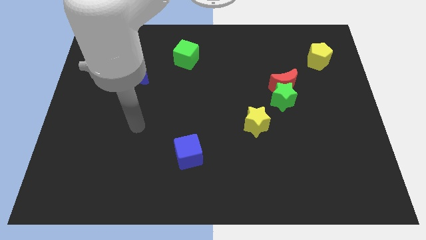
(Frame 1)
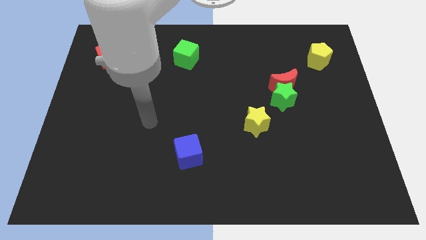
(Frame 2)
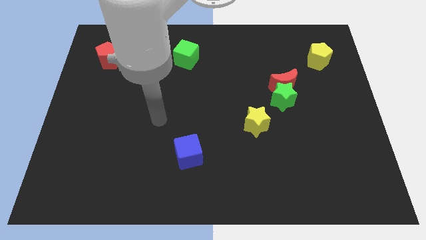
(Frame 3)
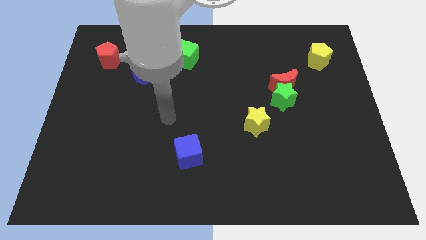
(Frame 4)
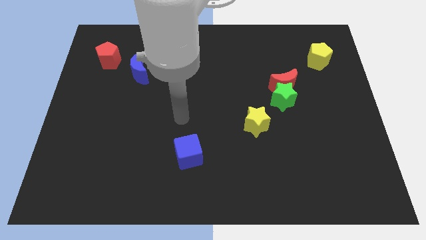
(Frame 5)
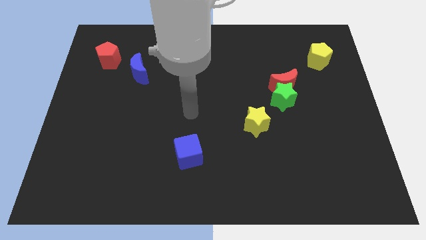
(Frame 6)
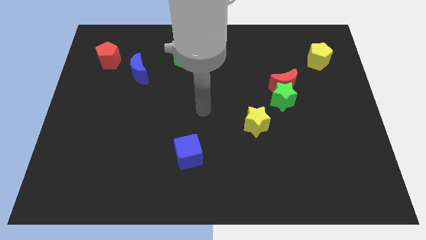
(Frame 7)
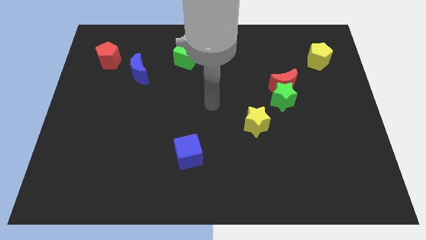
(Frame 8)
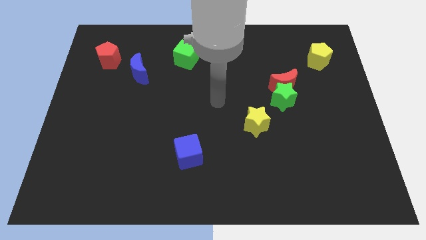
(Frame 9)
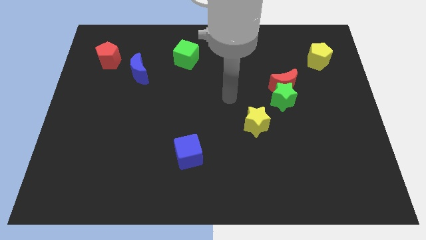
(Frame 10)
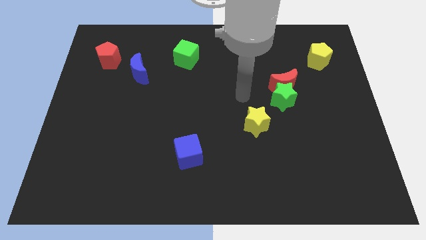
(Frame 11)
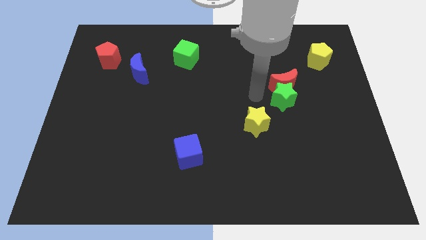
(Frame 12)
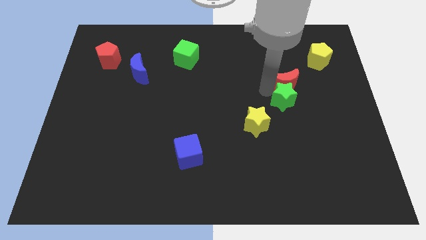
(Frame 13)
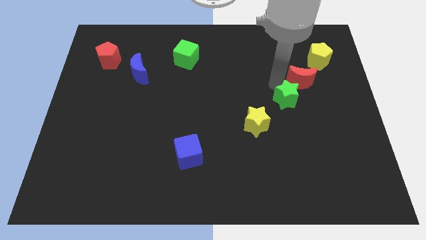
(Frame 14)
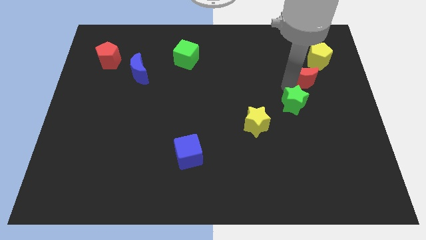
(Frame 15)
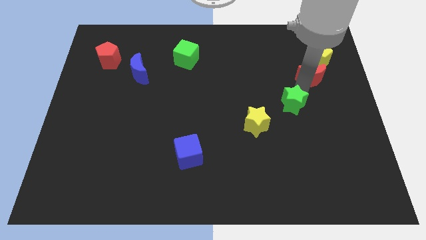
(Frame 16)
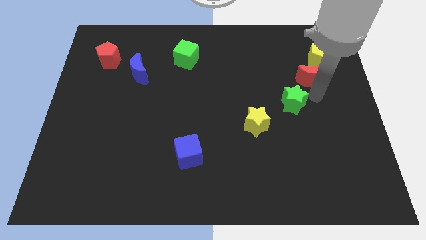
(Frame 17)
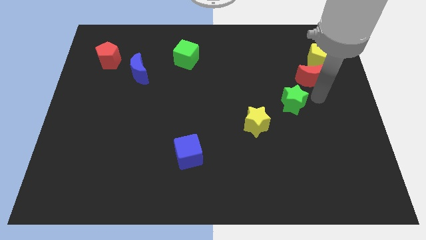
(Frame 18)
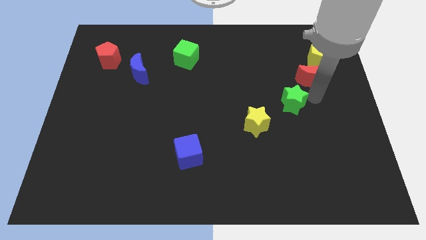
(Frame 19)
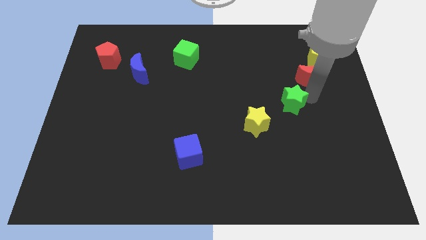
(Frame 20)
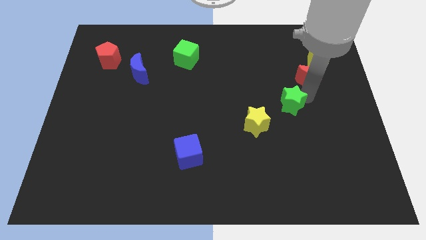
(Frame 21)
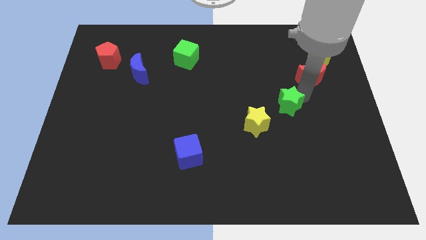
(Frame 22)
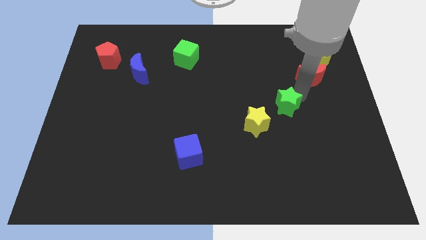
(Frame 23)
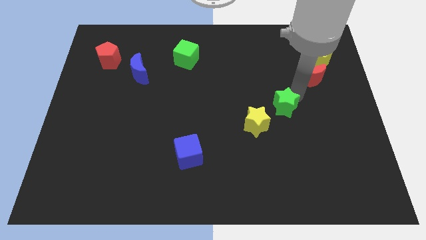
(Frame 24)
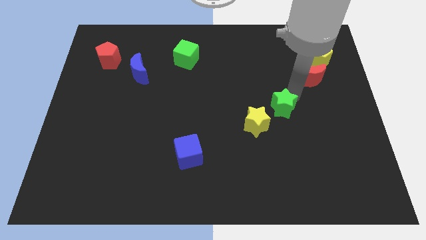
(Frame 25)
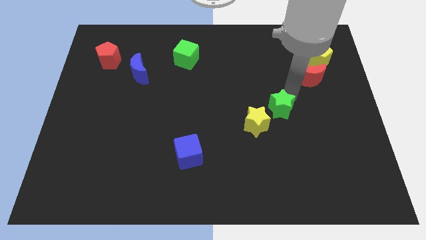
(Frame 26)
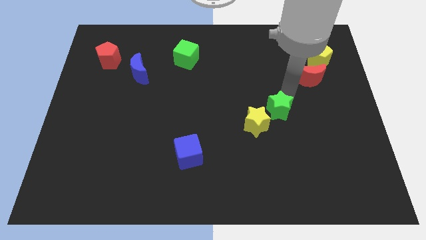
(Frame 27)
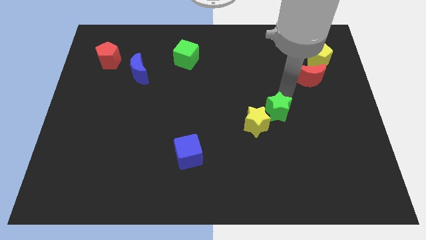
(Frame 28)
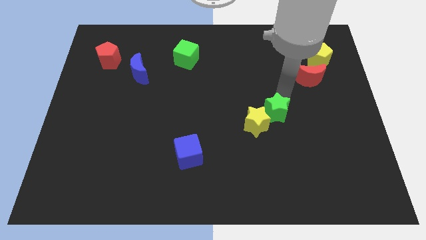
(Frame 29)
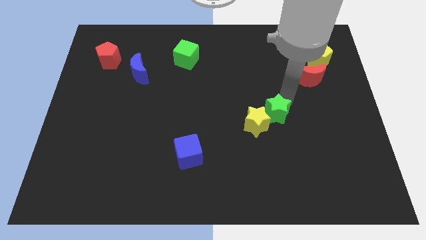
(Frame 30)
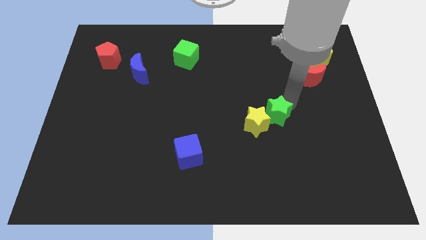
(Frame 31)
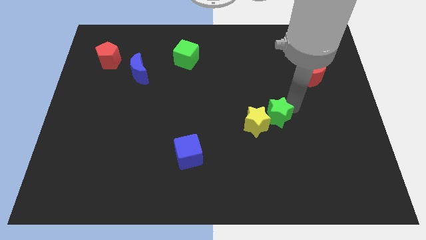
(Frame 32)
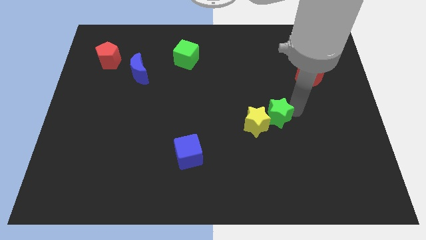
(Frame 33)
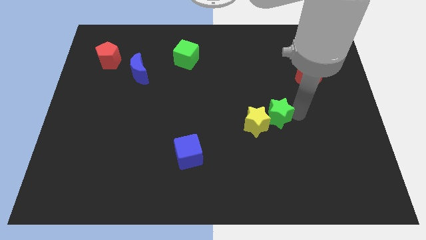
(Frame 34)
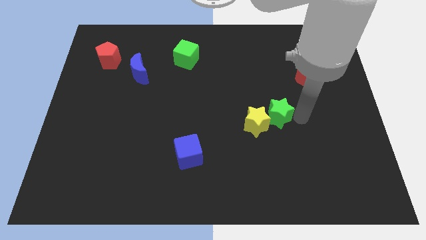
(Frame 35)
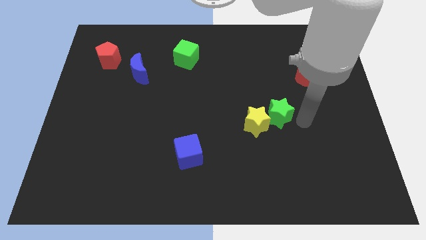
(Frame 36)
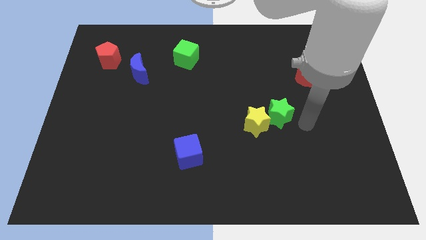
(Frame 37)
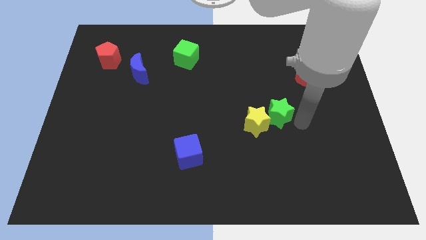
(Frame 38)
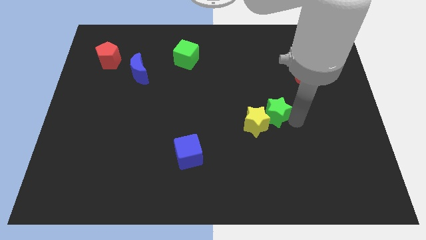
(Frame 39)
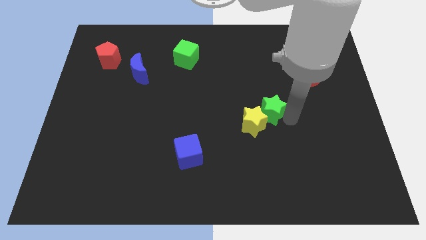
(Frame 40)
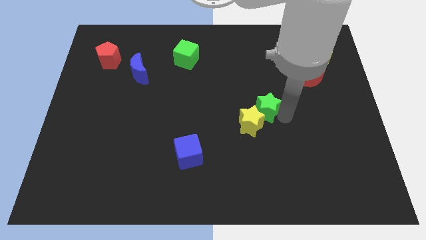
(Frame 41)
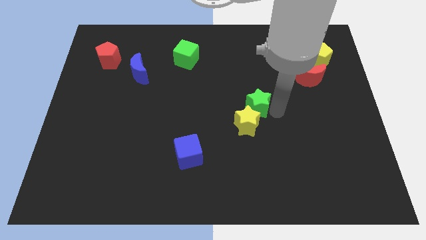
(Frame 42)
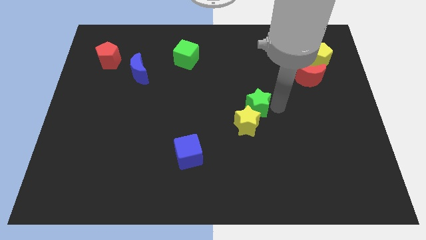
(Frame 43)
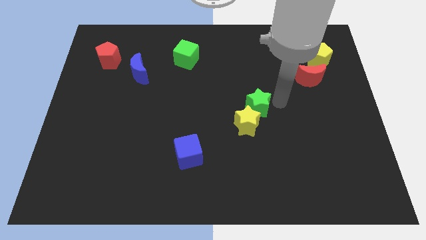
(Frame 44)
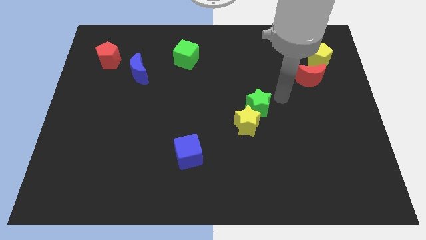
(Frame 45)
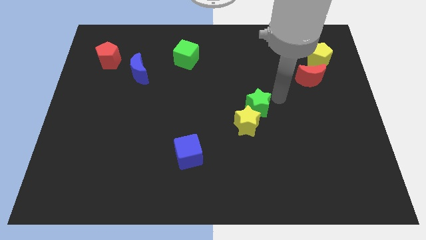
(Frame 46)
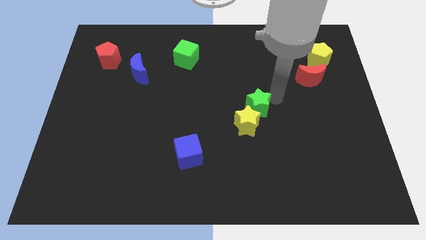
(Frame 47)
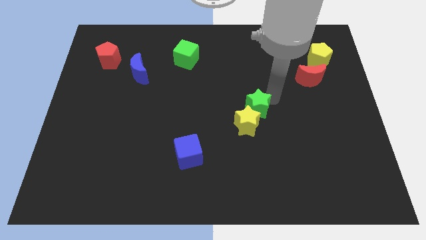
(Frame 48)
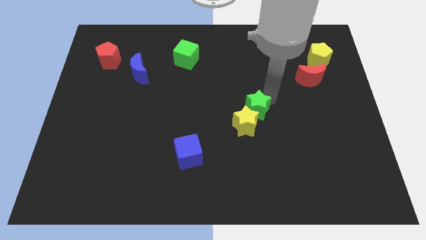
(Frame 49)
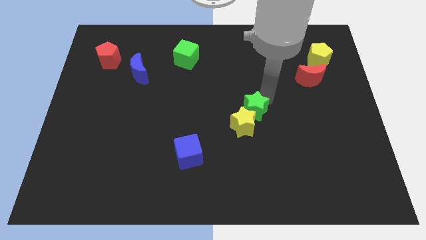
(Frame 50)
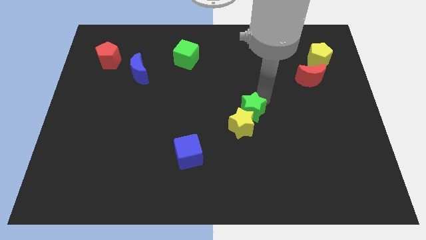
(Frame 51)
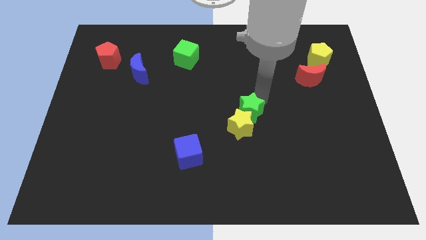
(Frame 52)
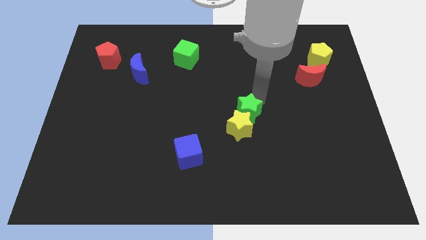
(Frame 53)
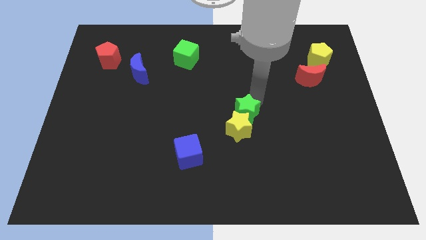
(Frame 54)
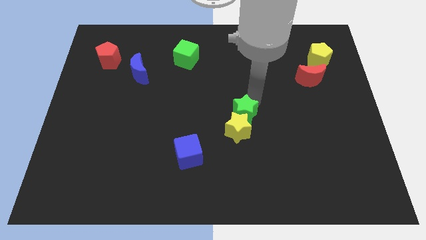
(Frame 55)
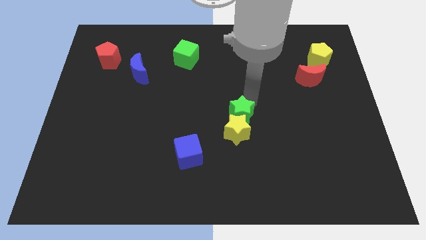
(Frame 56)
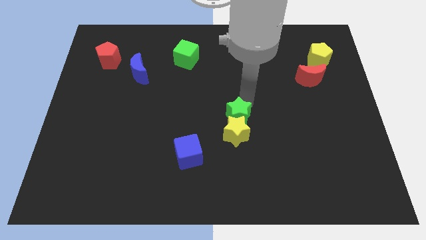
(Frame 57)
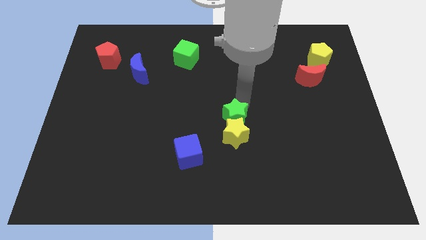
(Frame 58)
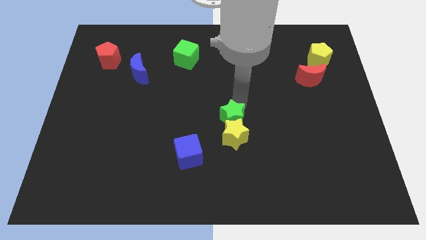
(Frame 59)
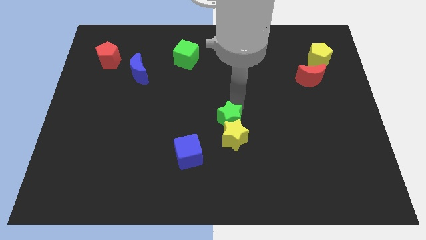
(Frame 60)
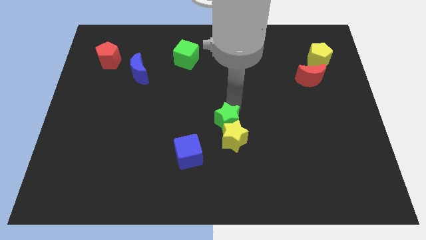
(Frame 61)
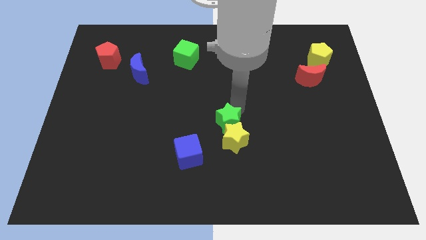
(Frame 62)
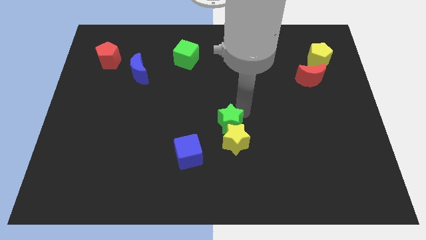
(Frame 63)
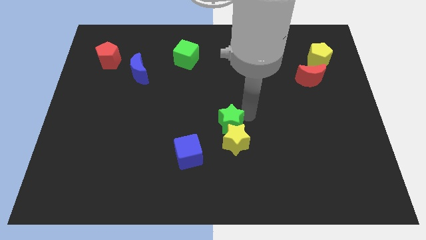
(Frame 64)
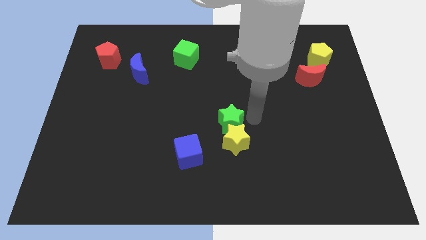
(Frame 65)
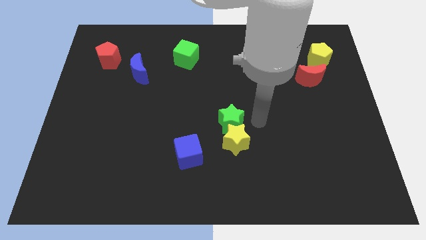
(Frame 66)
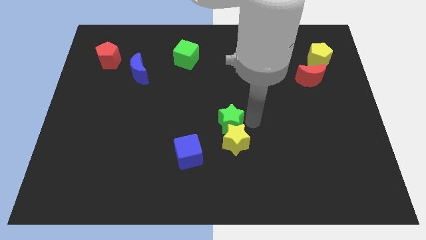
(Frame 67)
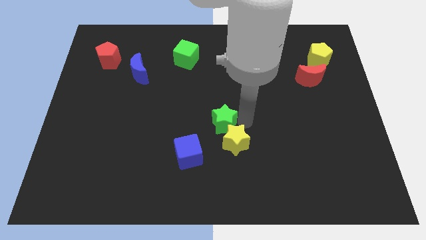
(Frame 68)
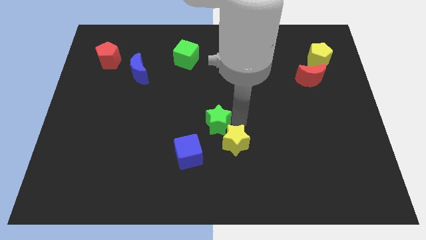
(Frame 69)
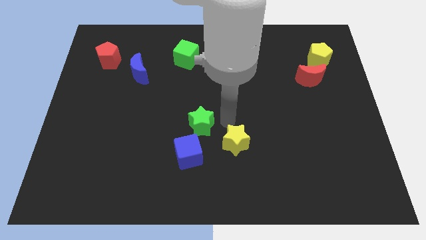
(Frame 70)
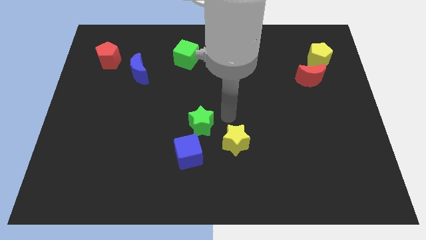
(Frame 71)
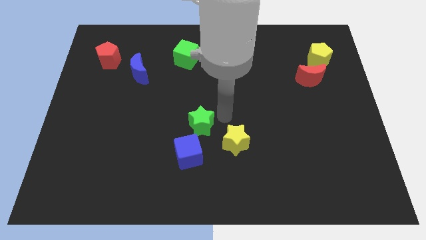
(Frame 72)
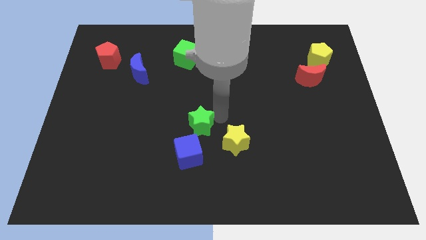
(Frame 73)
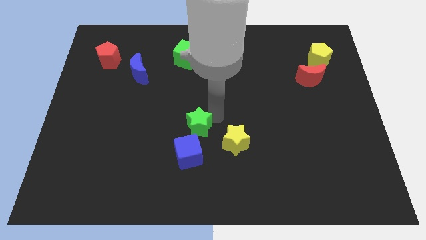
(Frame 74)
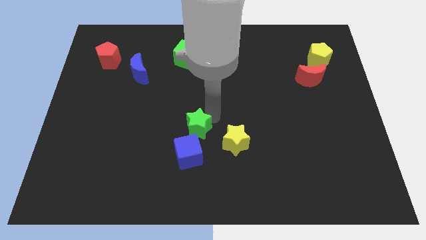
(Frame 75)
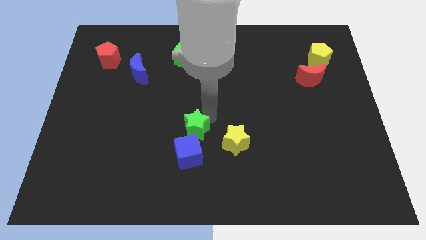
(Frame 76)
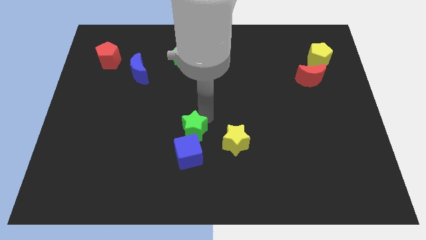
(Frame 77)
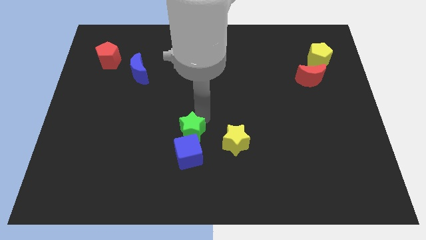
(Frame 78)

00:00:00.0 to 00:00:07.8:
move the green star to the top left of the blue cube

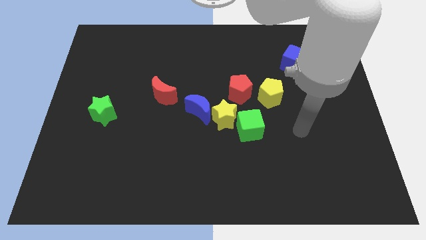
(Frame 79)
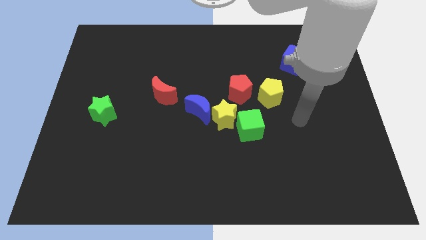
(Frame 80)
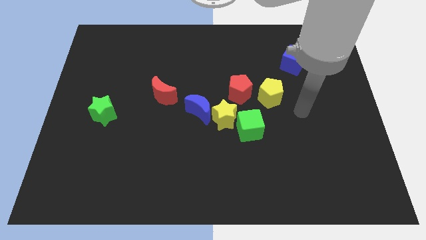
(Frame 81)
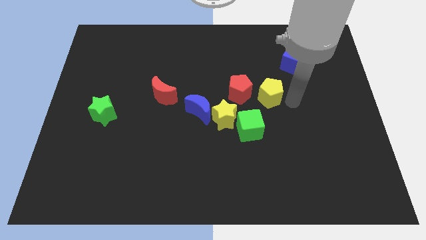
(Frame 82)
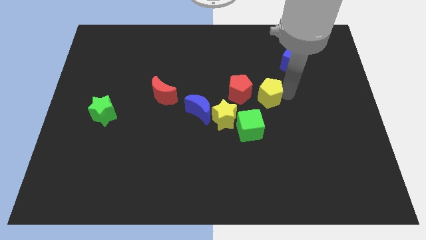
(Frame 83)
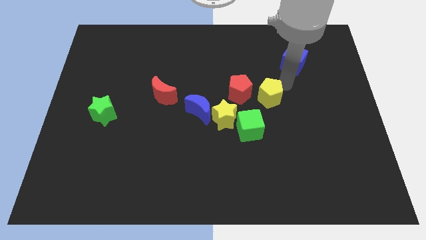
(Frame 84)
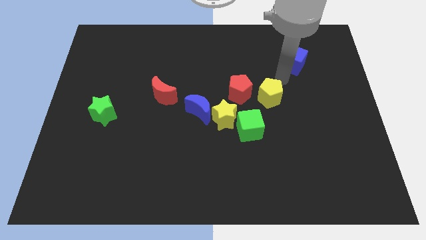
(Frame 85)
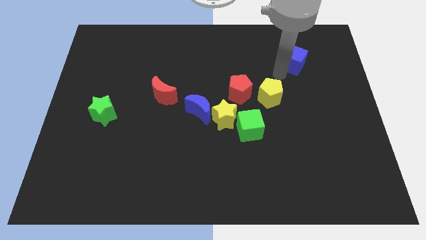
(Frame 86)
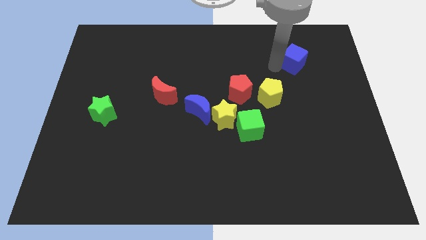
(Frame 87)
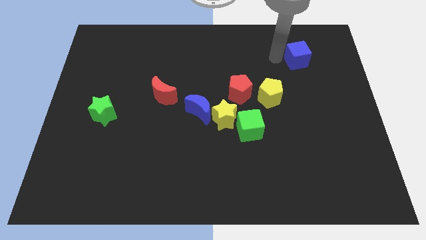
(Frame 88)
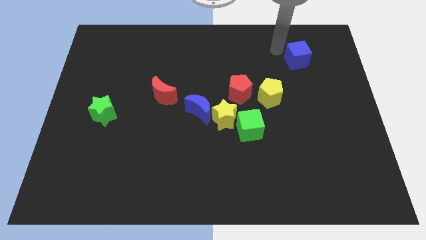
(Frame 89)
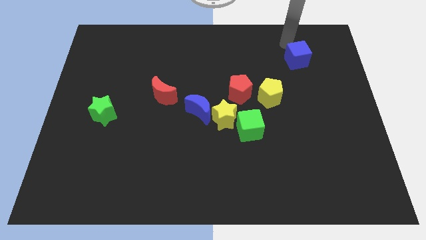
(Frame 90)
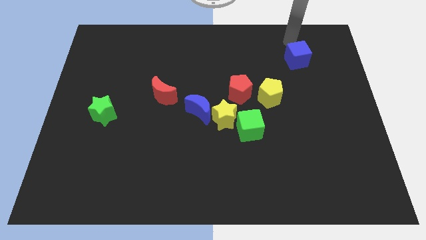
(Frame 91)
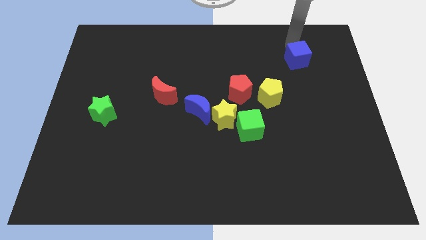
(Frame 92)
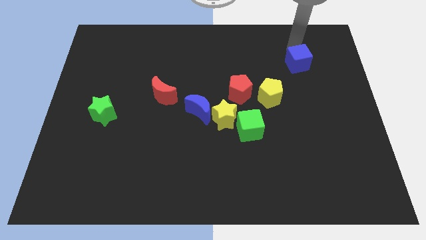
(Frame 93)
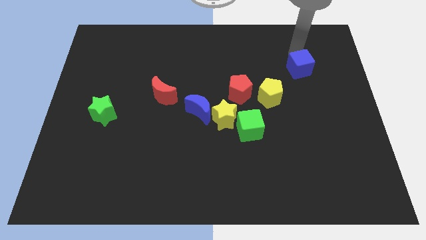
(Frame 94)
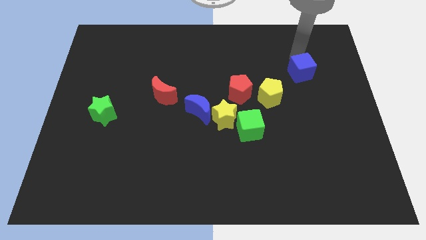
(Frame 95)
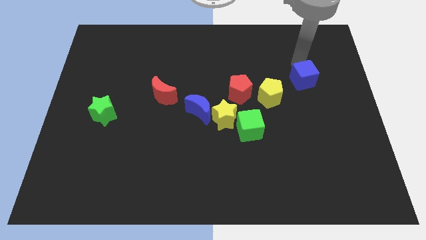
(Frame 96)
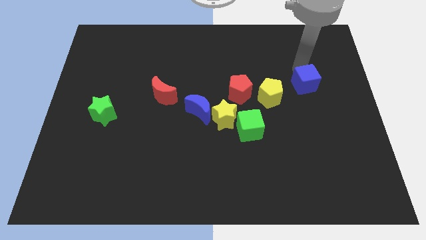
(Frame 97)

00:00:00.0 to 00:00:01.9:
push the blue cube to the right side of the yellow pentagon
